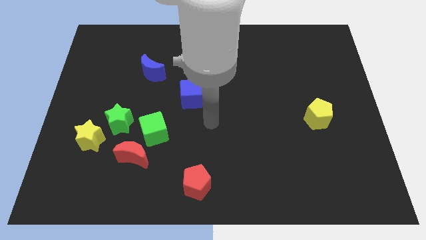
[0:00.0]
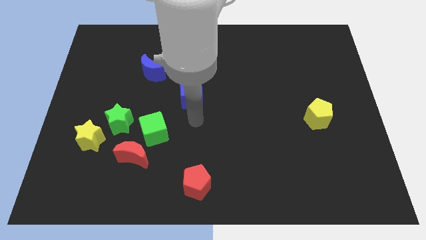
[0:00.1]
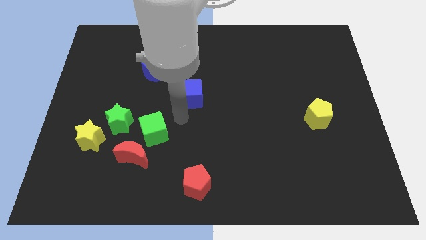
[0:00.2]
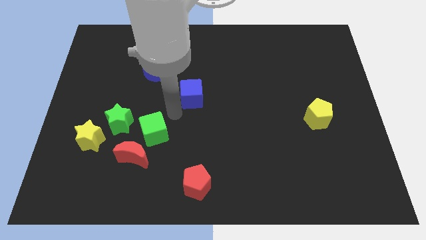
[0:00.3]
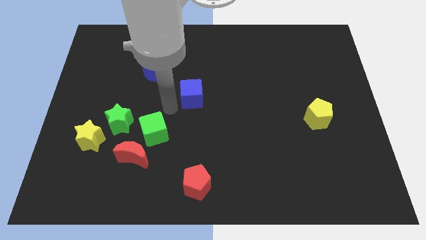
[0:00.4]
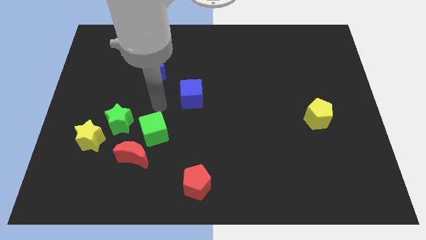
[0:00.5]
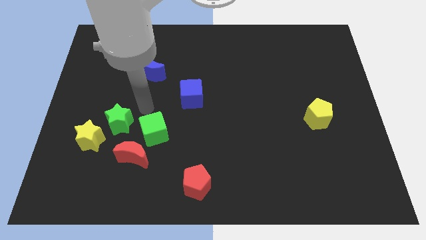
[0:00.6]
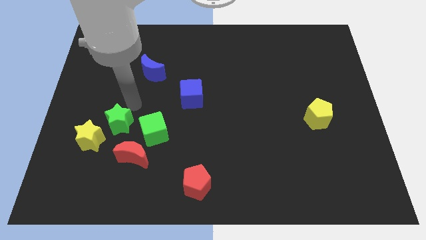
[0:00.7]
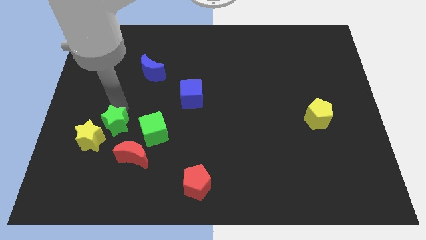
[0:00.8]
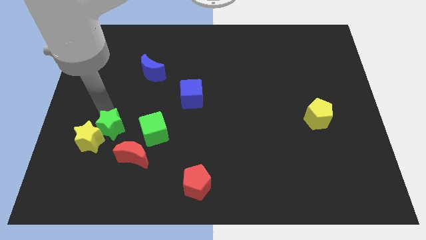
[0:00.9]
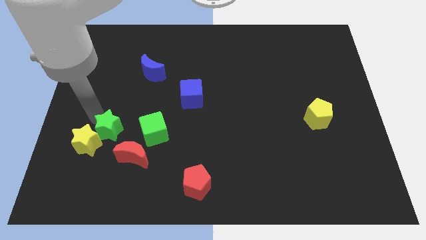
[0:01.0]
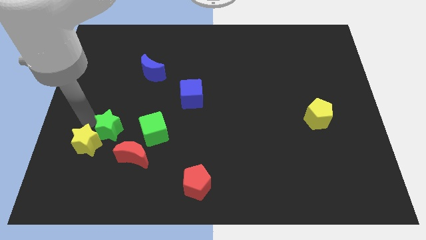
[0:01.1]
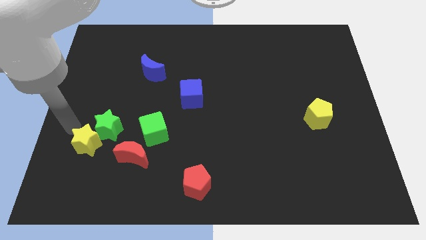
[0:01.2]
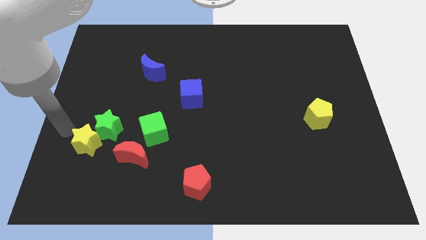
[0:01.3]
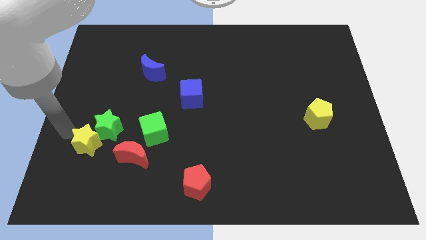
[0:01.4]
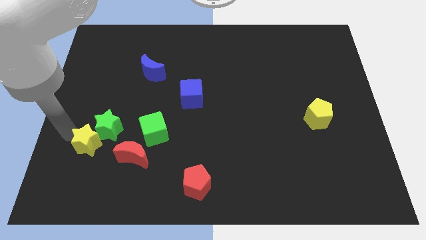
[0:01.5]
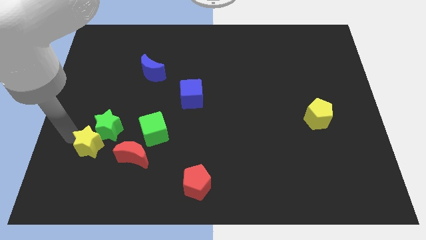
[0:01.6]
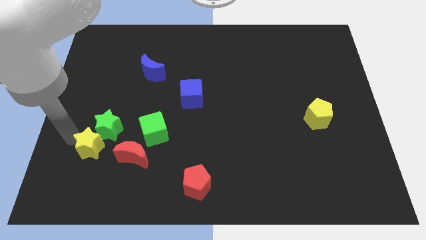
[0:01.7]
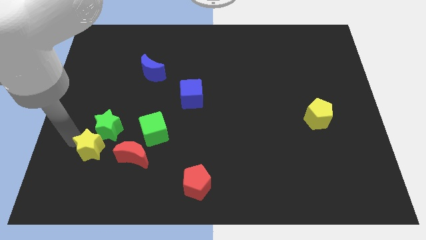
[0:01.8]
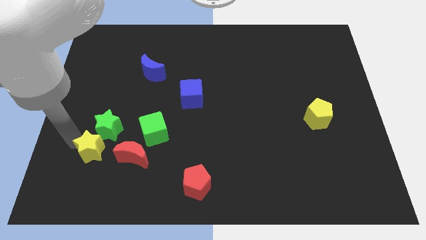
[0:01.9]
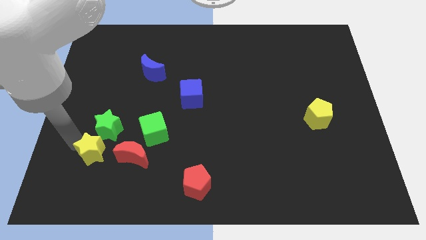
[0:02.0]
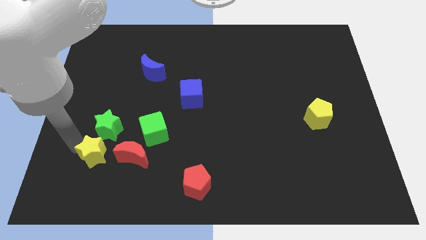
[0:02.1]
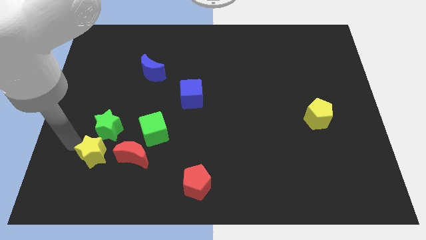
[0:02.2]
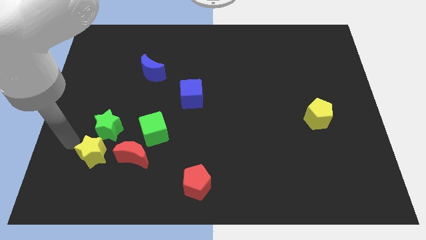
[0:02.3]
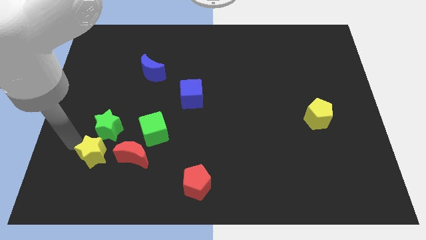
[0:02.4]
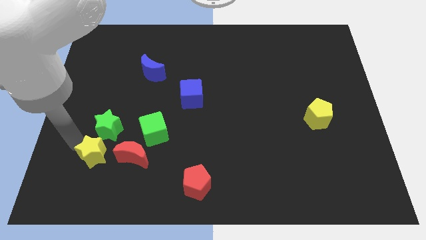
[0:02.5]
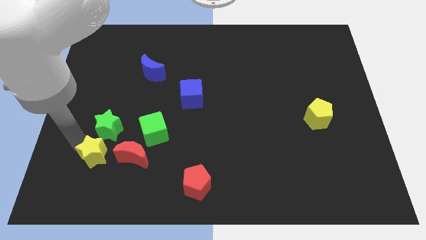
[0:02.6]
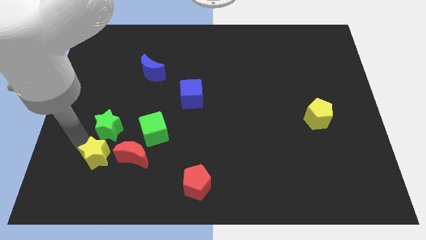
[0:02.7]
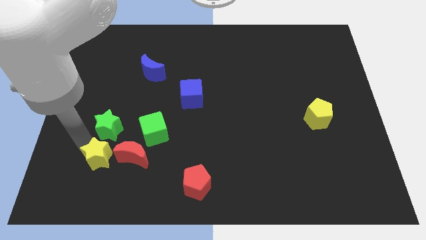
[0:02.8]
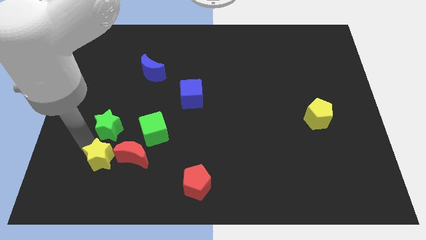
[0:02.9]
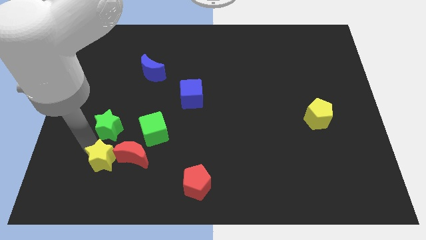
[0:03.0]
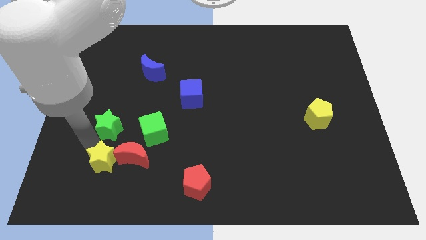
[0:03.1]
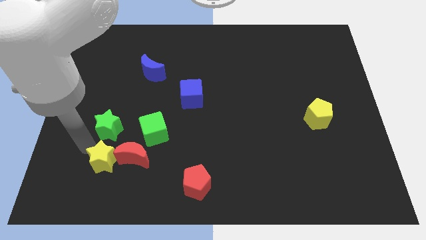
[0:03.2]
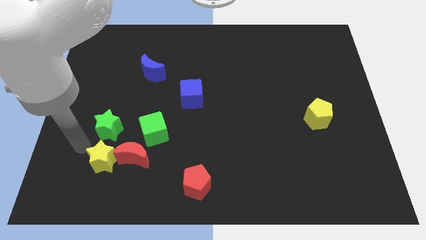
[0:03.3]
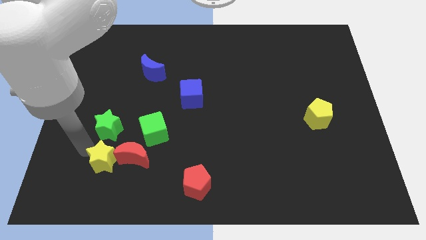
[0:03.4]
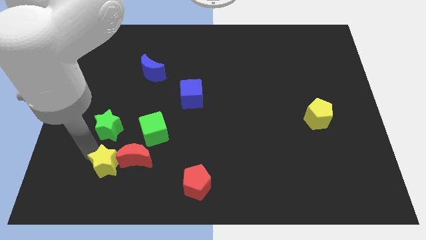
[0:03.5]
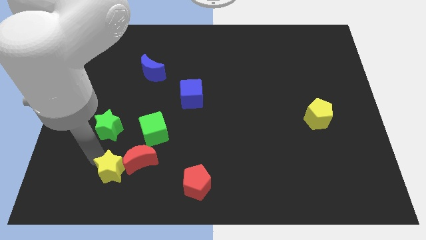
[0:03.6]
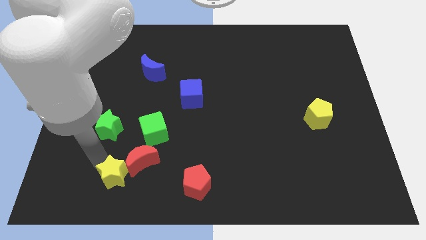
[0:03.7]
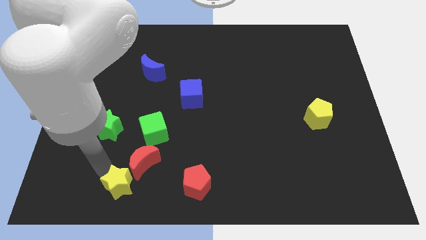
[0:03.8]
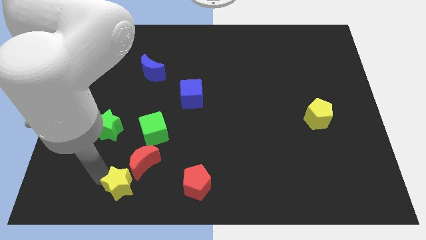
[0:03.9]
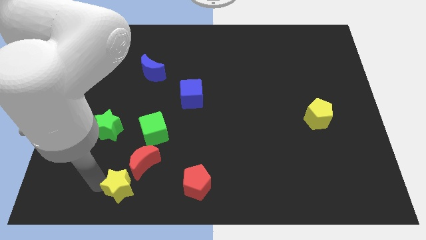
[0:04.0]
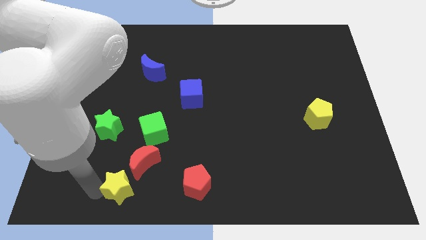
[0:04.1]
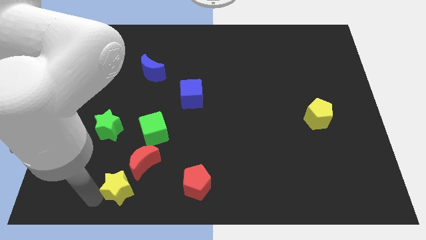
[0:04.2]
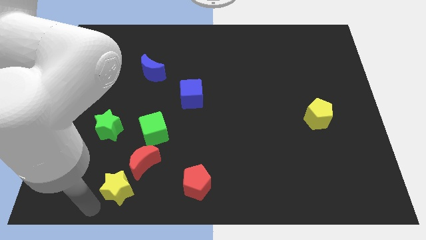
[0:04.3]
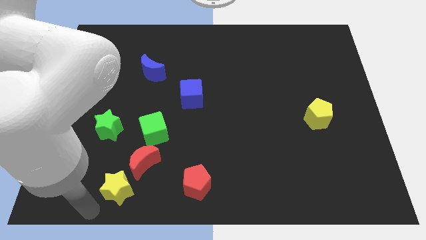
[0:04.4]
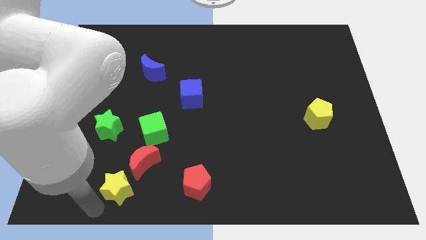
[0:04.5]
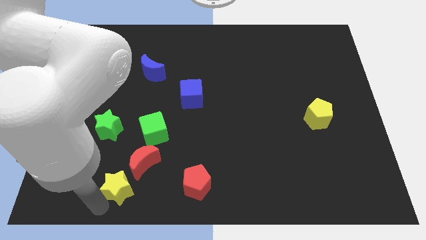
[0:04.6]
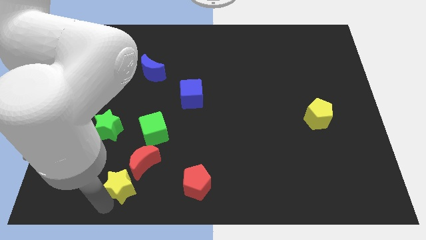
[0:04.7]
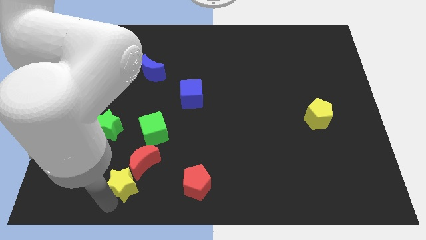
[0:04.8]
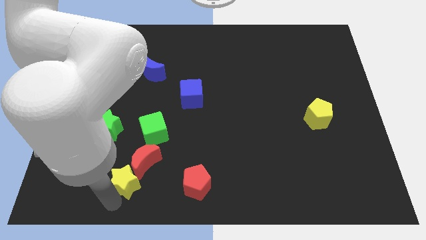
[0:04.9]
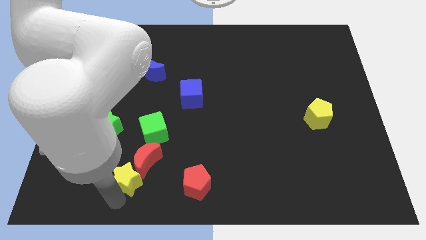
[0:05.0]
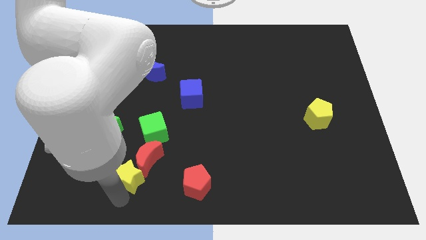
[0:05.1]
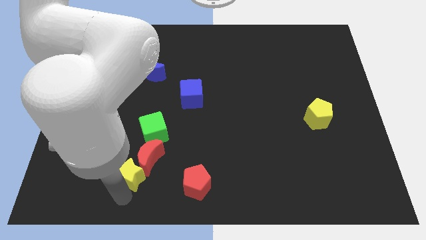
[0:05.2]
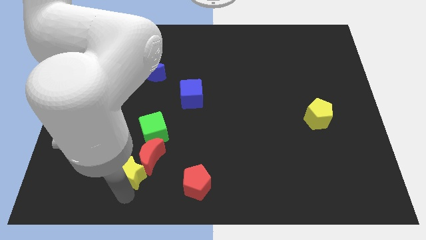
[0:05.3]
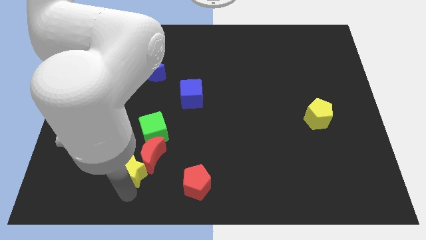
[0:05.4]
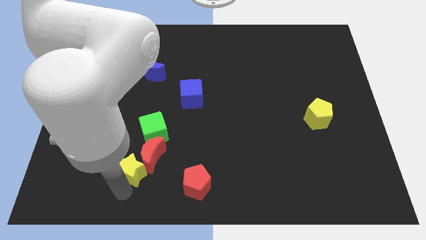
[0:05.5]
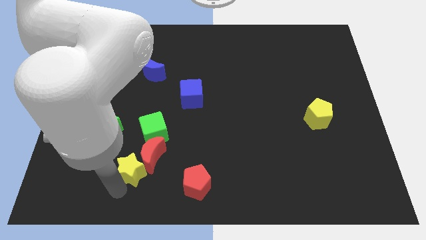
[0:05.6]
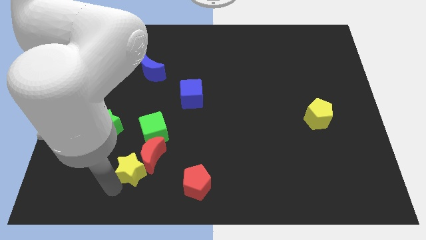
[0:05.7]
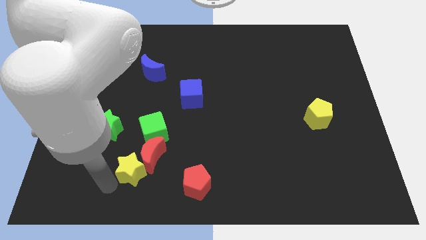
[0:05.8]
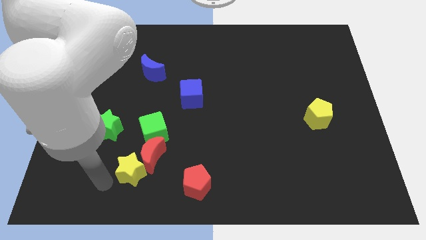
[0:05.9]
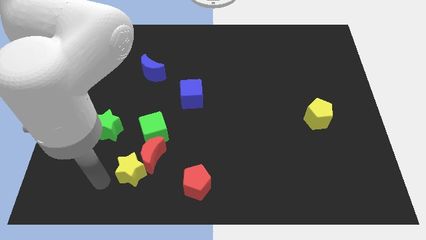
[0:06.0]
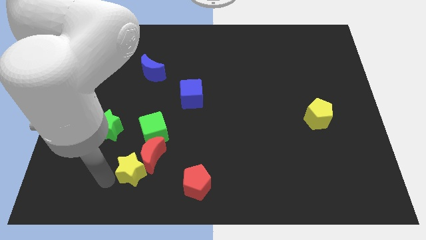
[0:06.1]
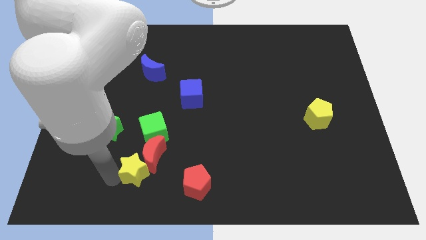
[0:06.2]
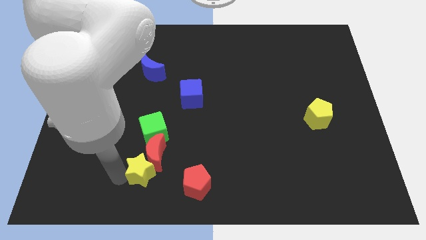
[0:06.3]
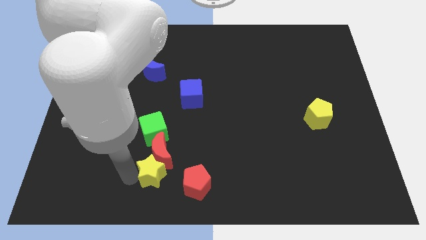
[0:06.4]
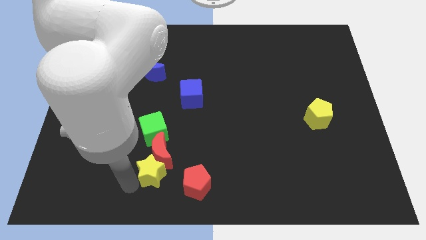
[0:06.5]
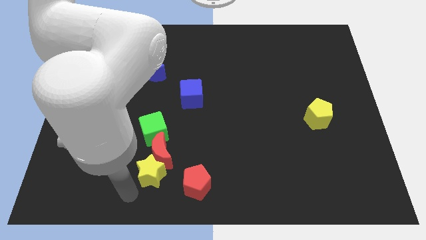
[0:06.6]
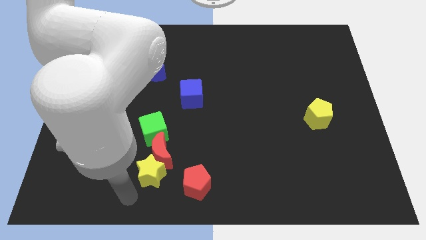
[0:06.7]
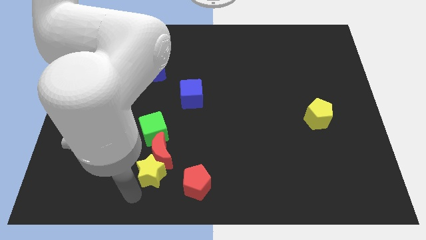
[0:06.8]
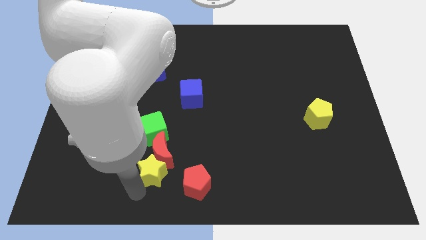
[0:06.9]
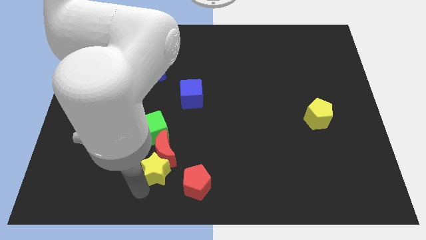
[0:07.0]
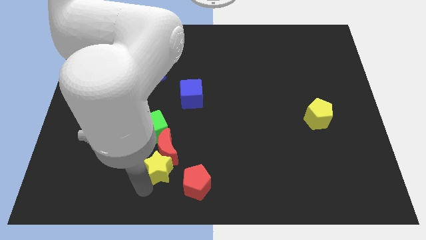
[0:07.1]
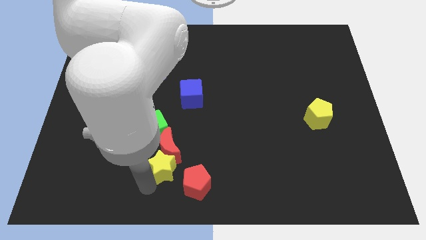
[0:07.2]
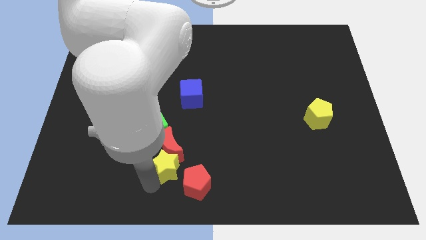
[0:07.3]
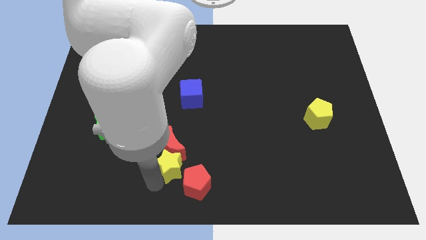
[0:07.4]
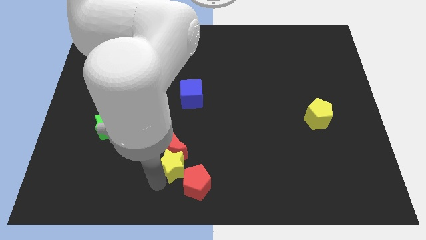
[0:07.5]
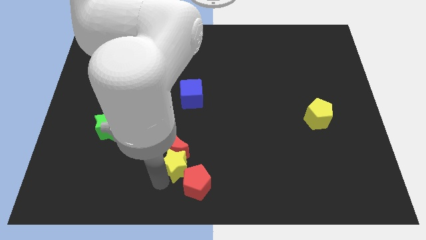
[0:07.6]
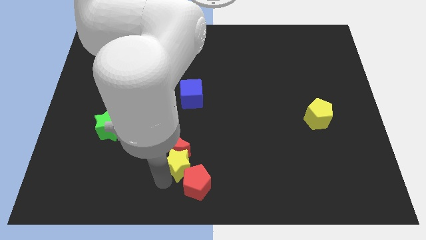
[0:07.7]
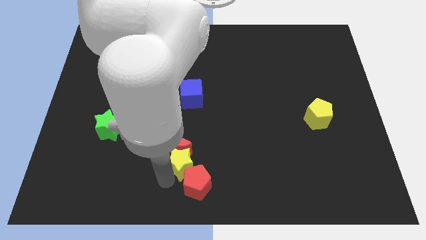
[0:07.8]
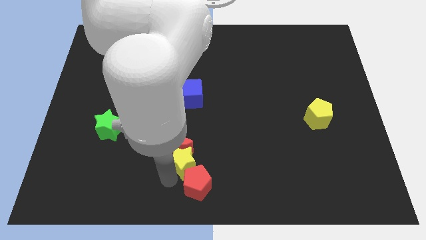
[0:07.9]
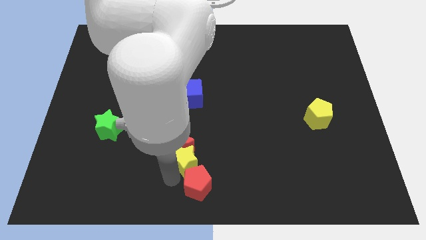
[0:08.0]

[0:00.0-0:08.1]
move the yellow star to the right
